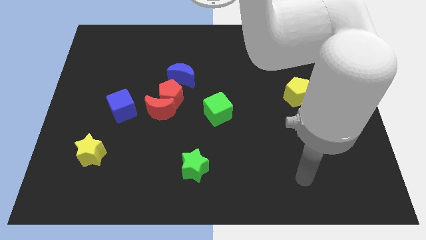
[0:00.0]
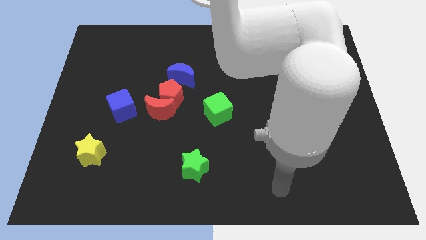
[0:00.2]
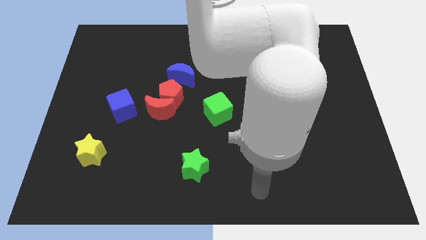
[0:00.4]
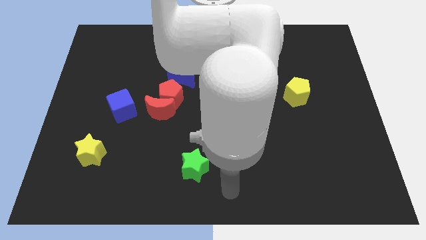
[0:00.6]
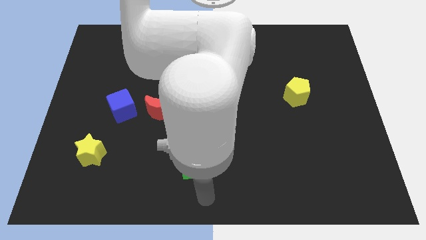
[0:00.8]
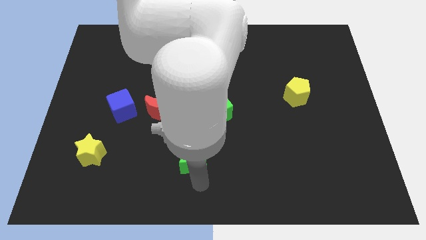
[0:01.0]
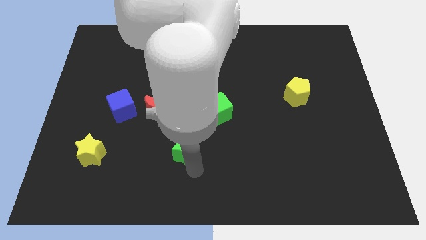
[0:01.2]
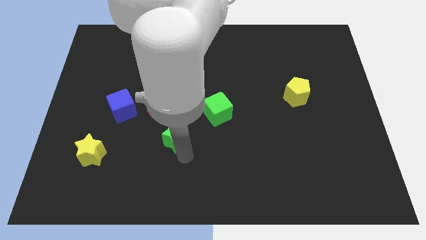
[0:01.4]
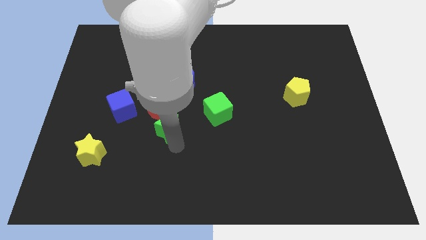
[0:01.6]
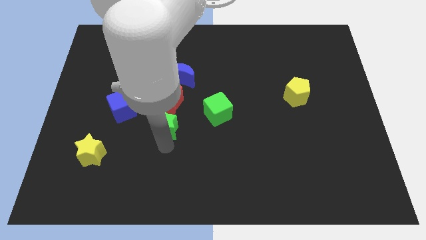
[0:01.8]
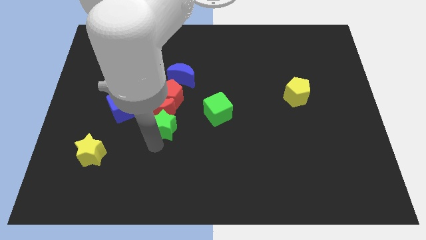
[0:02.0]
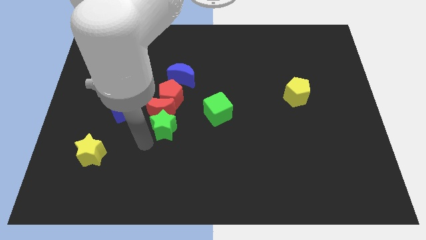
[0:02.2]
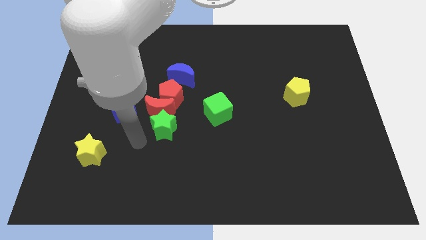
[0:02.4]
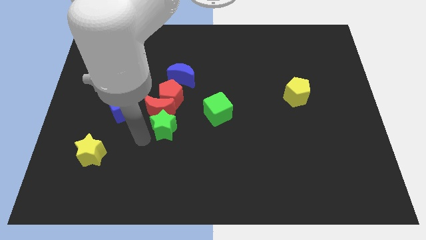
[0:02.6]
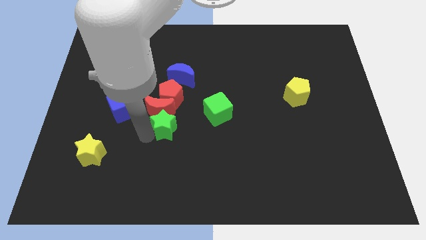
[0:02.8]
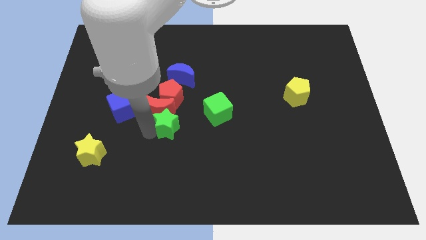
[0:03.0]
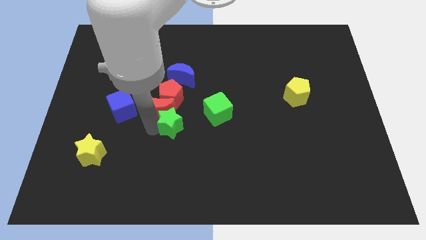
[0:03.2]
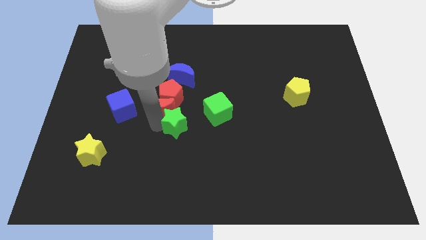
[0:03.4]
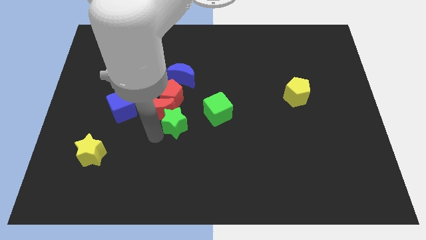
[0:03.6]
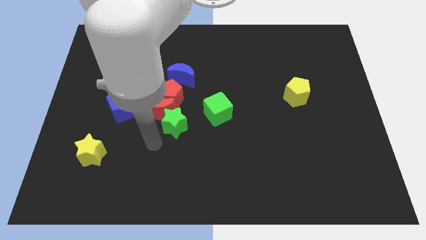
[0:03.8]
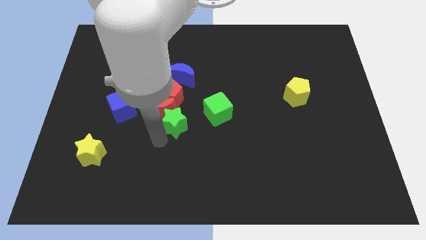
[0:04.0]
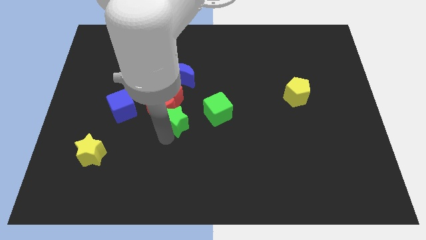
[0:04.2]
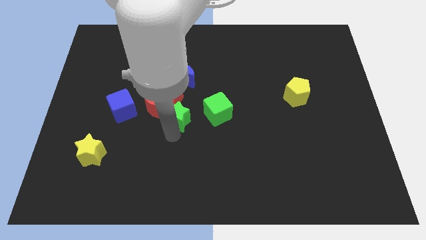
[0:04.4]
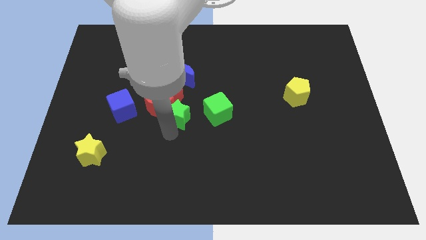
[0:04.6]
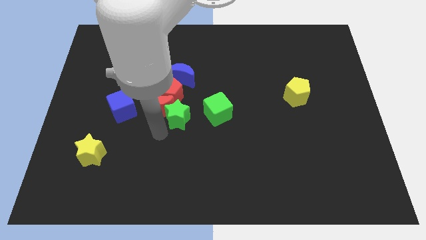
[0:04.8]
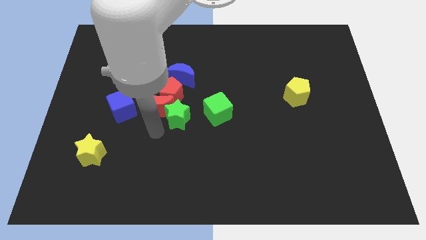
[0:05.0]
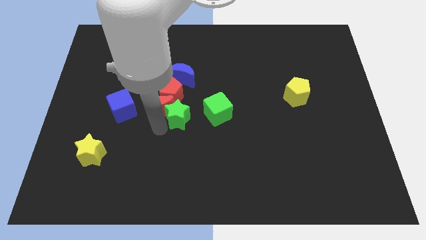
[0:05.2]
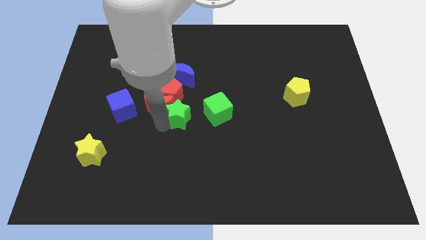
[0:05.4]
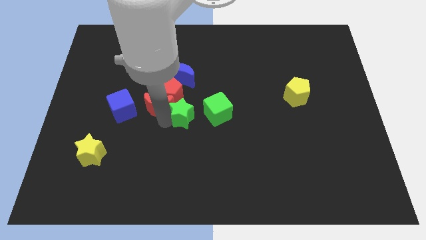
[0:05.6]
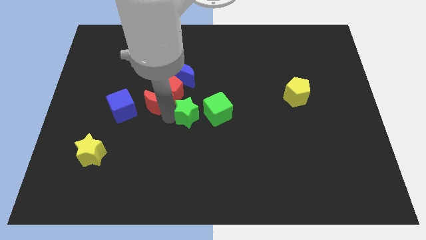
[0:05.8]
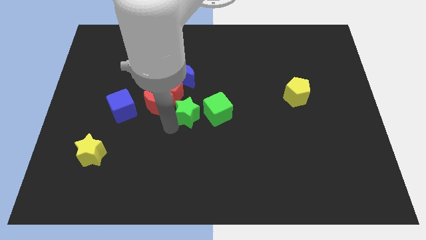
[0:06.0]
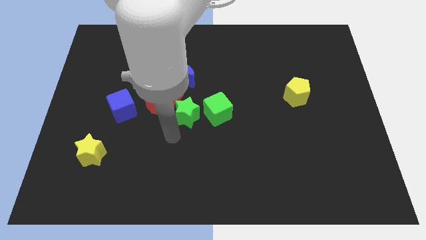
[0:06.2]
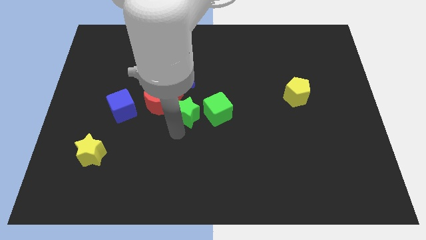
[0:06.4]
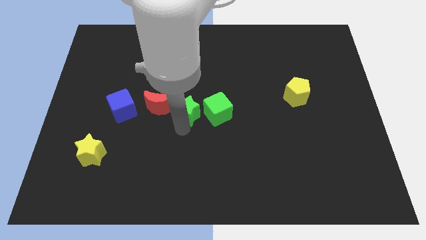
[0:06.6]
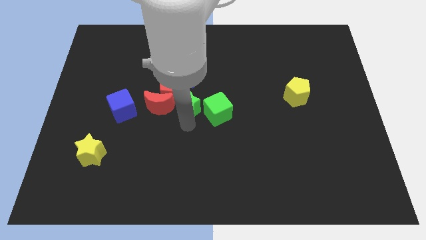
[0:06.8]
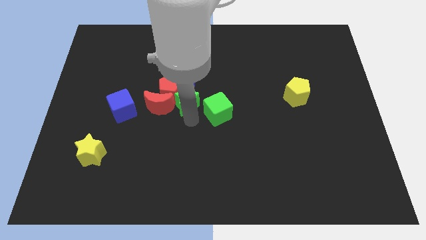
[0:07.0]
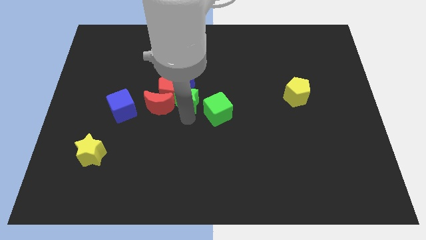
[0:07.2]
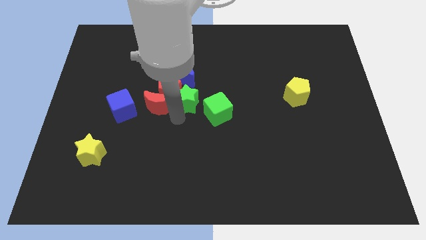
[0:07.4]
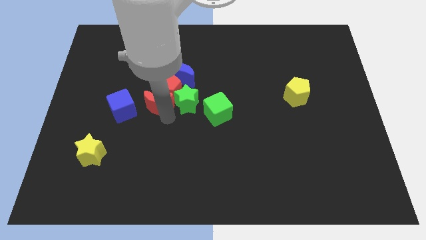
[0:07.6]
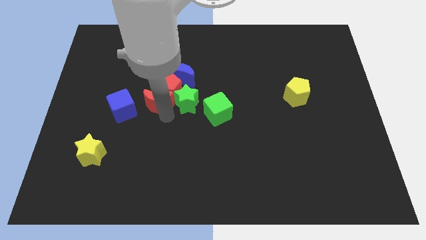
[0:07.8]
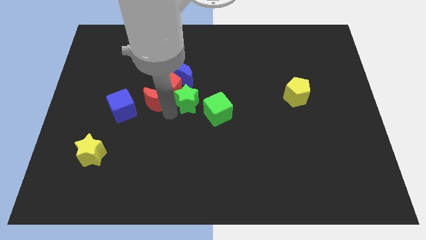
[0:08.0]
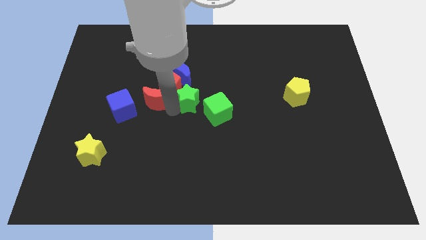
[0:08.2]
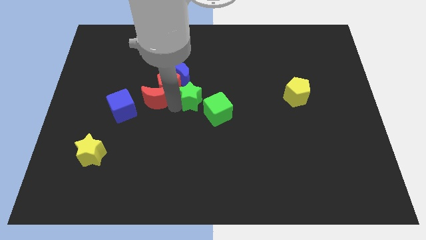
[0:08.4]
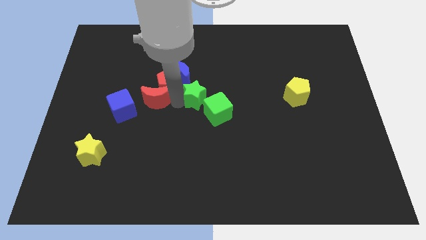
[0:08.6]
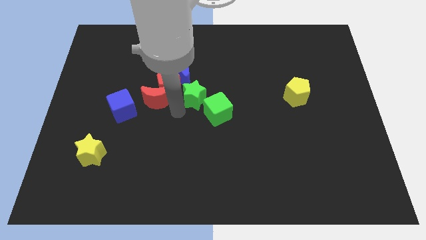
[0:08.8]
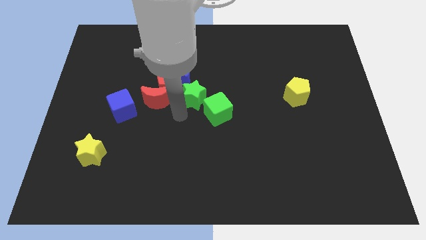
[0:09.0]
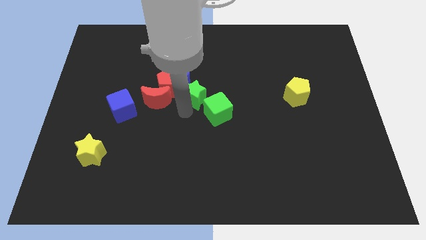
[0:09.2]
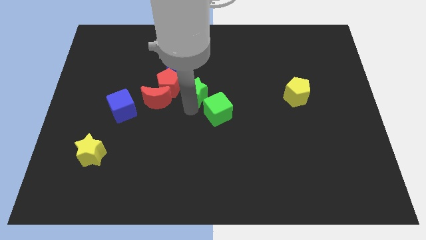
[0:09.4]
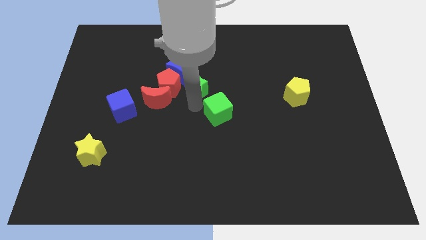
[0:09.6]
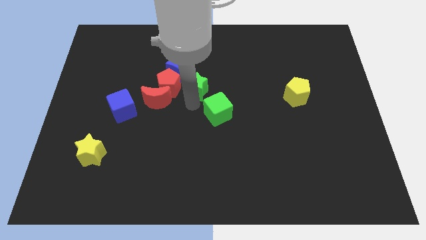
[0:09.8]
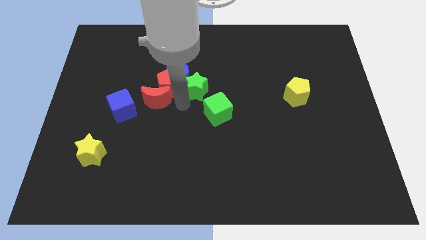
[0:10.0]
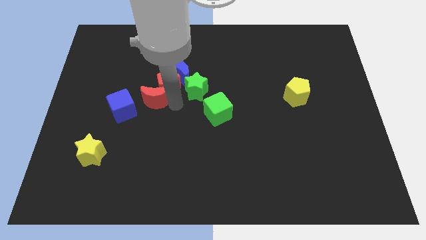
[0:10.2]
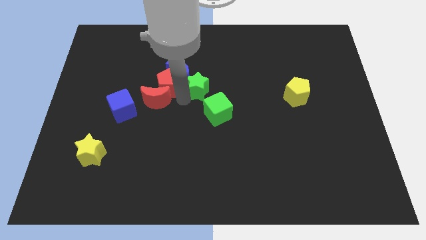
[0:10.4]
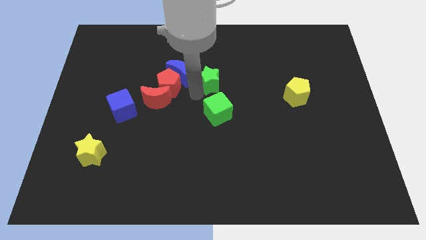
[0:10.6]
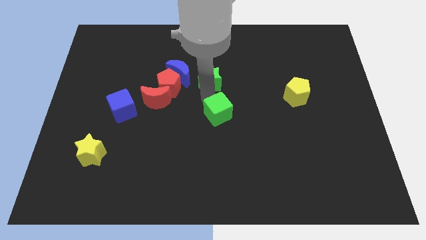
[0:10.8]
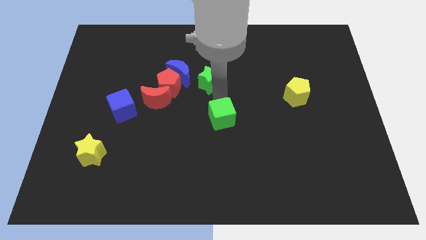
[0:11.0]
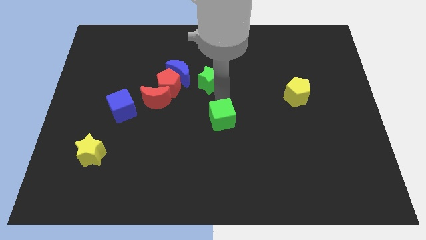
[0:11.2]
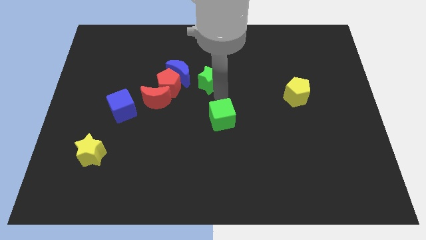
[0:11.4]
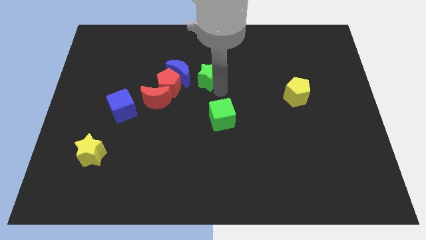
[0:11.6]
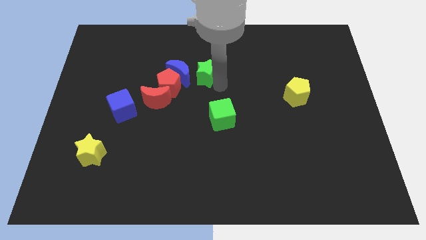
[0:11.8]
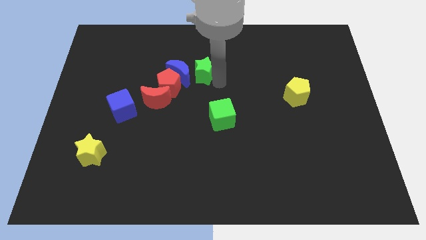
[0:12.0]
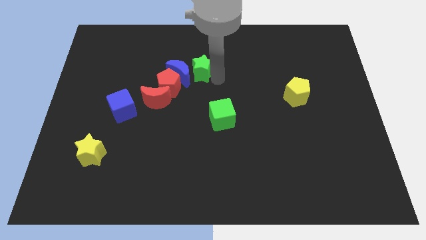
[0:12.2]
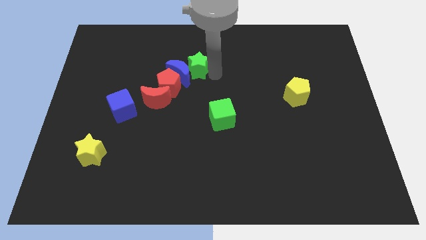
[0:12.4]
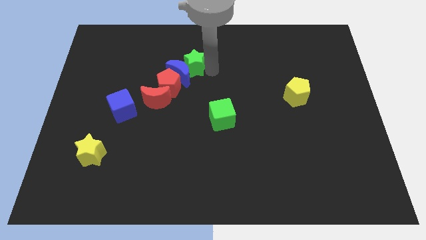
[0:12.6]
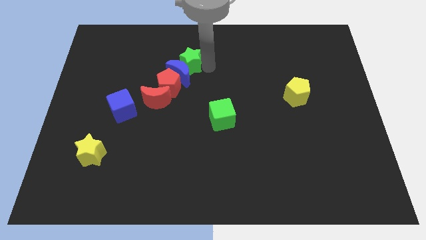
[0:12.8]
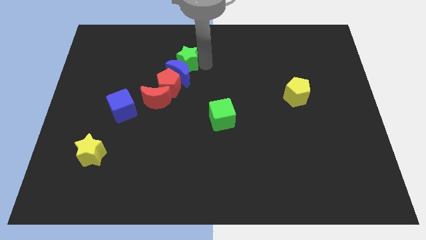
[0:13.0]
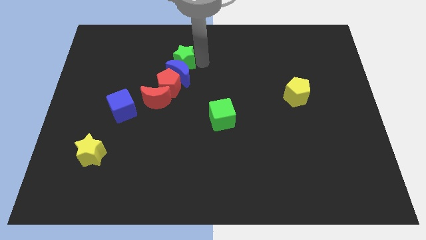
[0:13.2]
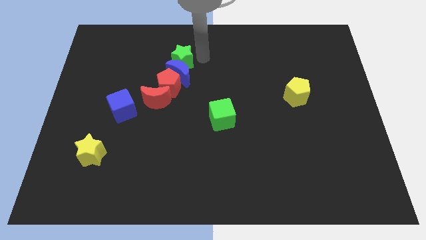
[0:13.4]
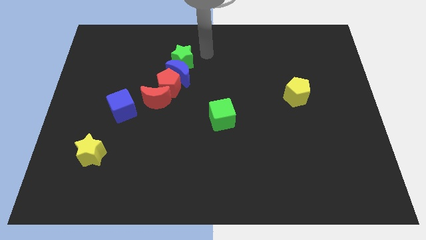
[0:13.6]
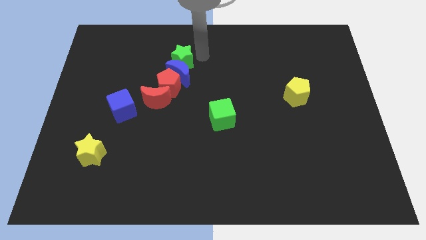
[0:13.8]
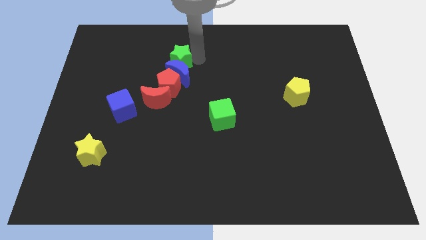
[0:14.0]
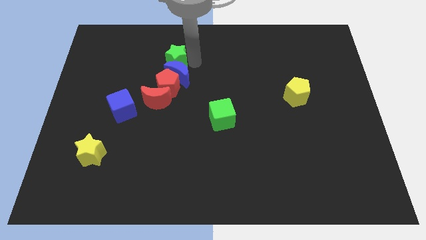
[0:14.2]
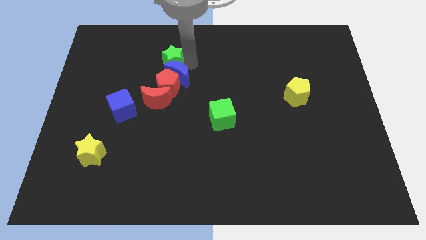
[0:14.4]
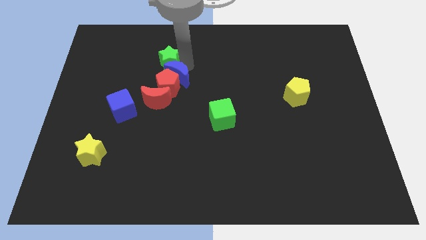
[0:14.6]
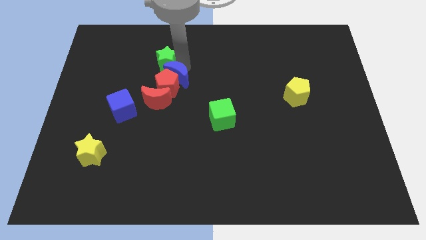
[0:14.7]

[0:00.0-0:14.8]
push the green star just left of the blue moon
